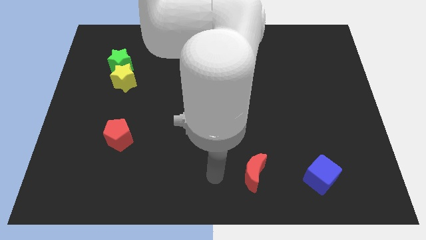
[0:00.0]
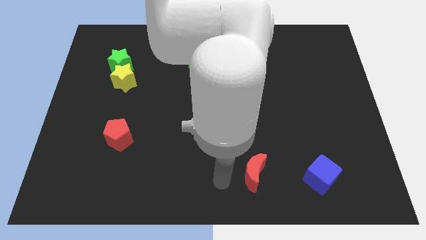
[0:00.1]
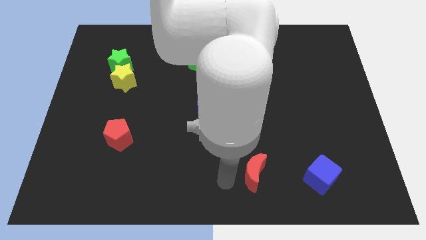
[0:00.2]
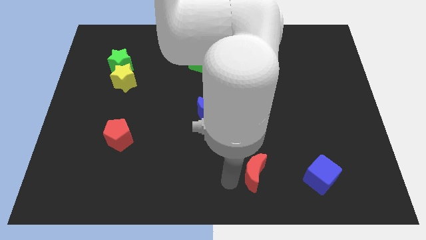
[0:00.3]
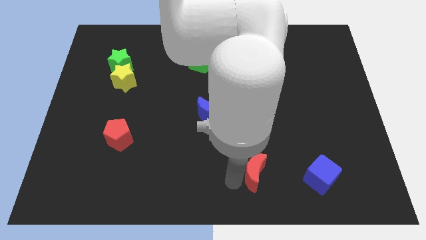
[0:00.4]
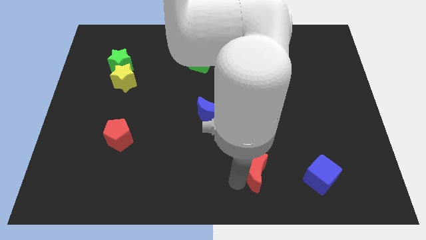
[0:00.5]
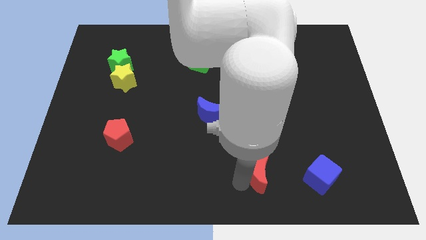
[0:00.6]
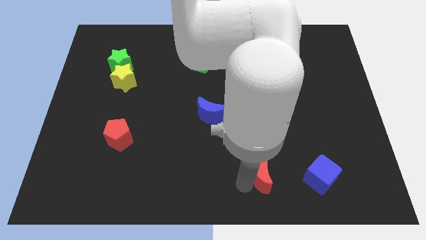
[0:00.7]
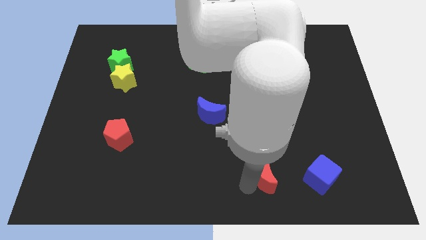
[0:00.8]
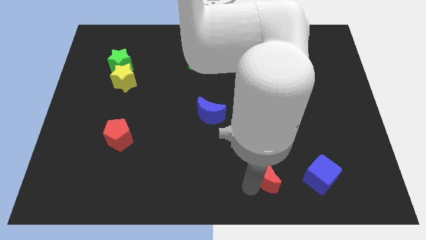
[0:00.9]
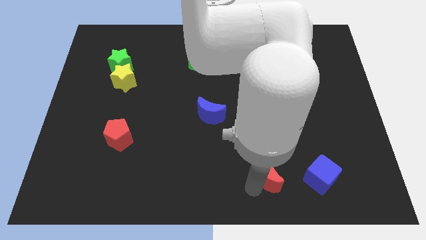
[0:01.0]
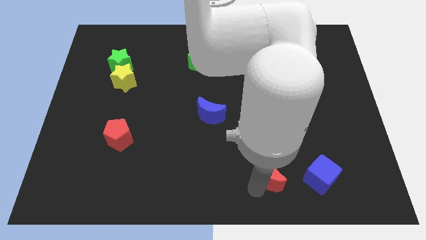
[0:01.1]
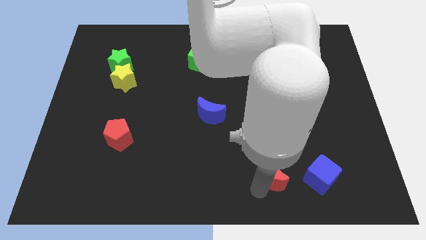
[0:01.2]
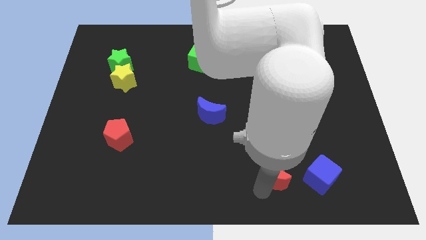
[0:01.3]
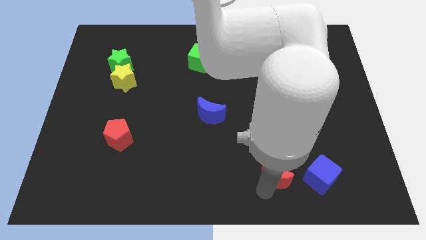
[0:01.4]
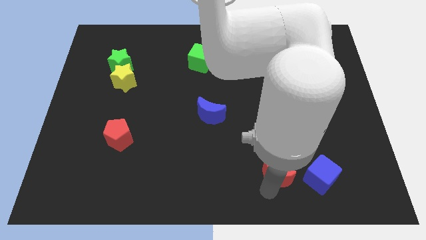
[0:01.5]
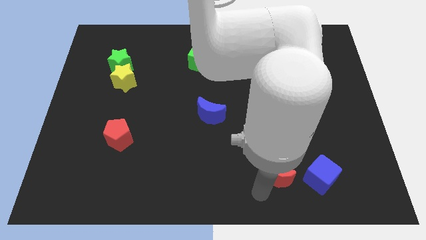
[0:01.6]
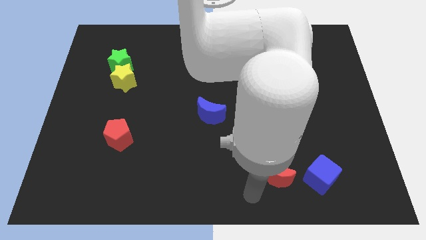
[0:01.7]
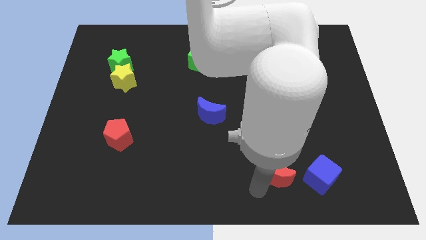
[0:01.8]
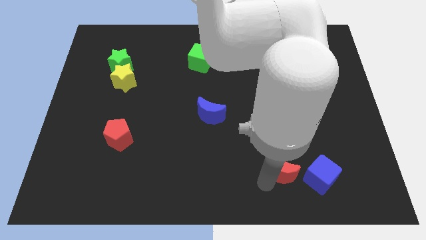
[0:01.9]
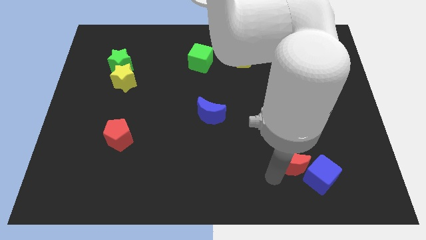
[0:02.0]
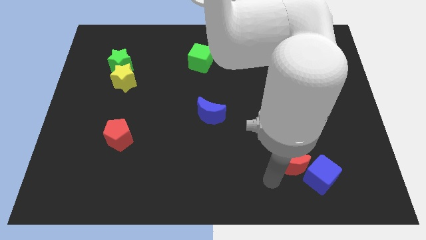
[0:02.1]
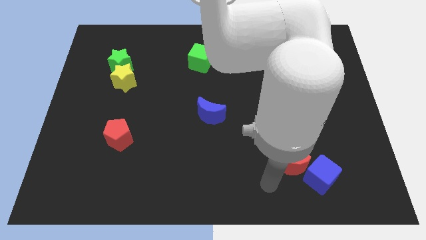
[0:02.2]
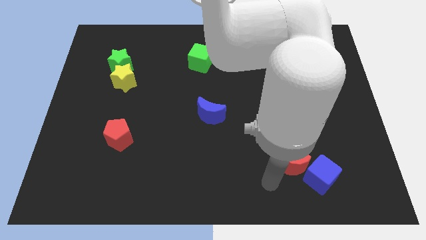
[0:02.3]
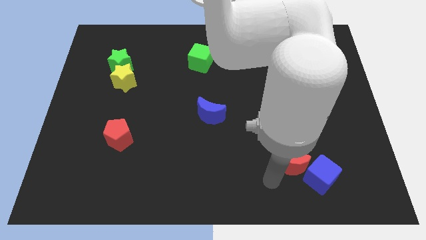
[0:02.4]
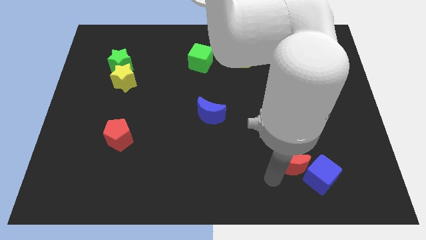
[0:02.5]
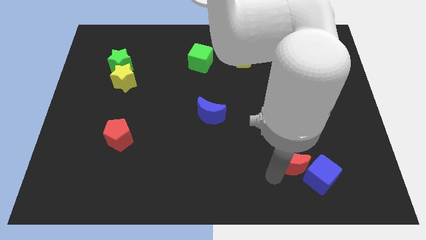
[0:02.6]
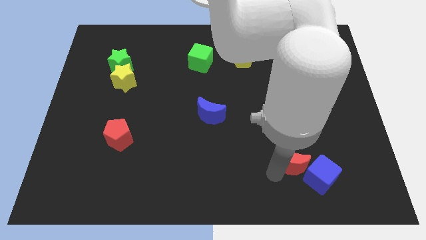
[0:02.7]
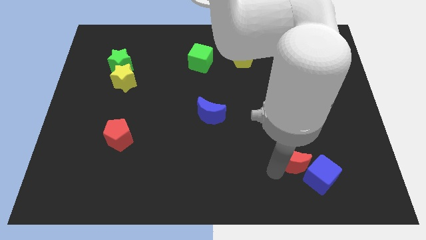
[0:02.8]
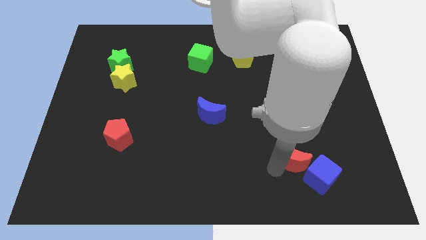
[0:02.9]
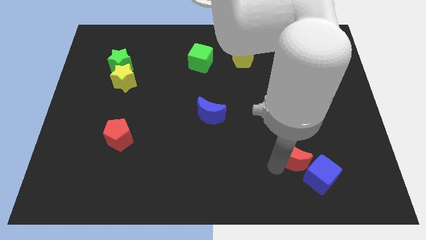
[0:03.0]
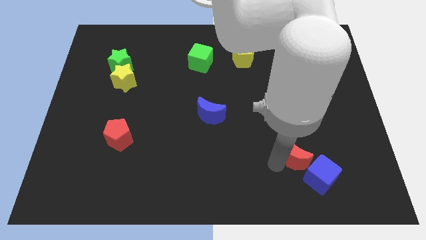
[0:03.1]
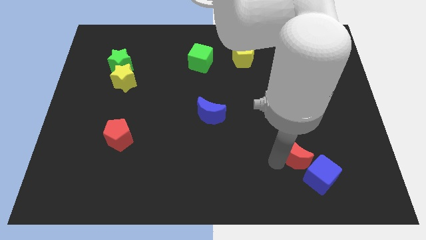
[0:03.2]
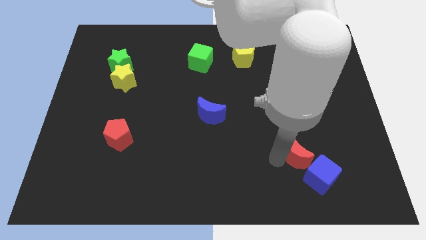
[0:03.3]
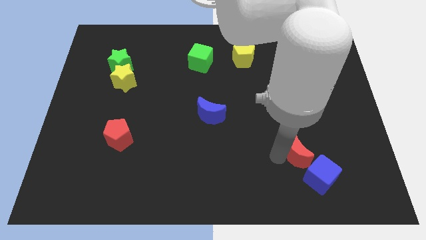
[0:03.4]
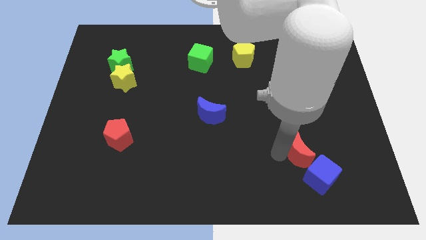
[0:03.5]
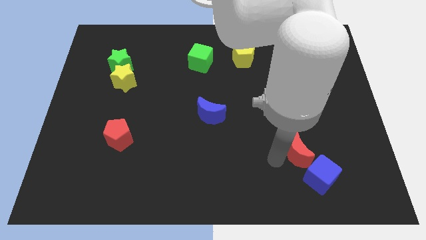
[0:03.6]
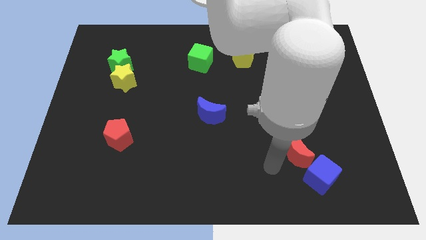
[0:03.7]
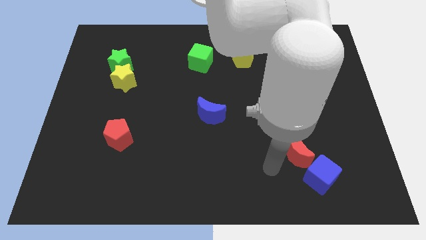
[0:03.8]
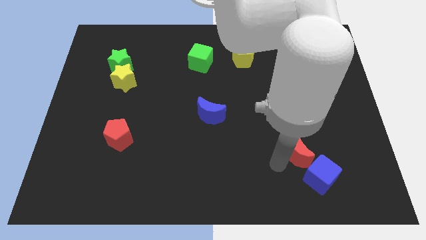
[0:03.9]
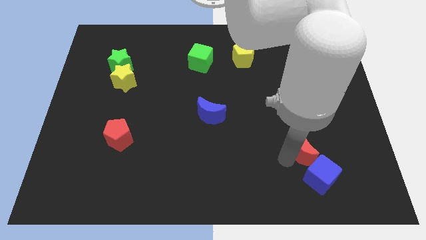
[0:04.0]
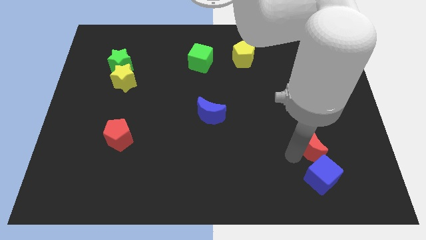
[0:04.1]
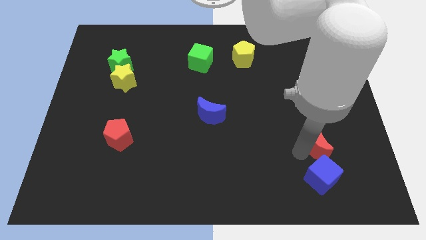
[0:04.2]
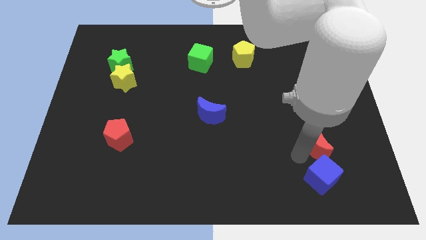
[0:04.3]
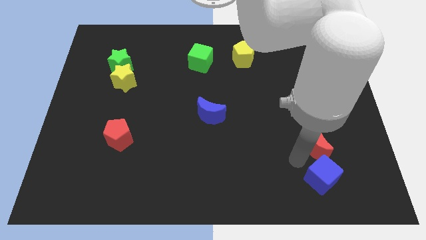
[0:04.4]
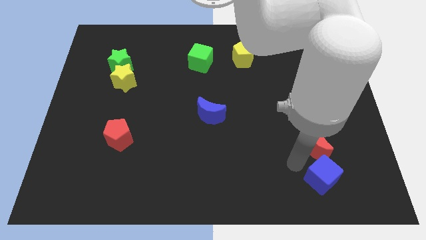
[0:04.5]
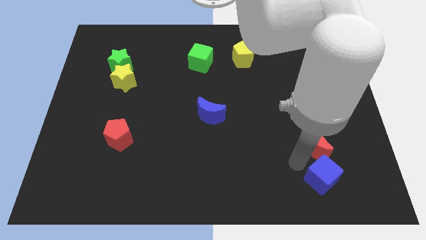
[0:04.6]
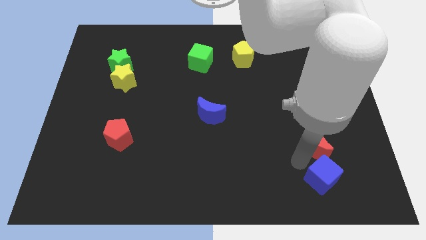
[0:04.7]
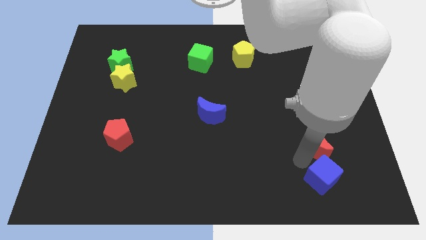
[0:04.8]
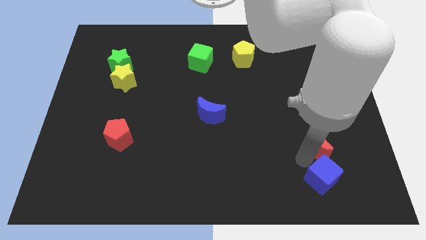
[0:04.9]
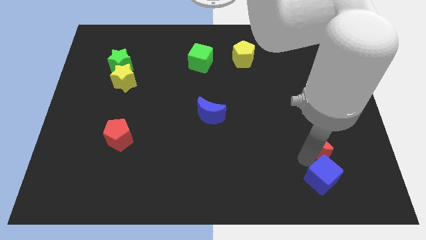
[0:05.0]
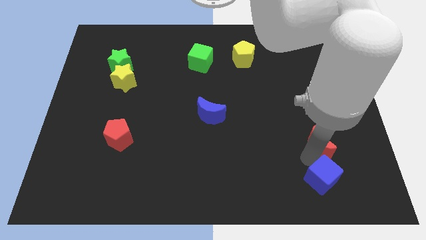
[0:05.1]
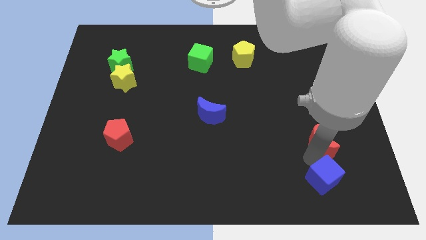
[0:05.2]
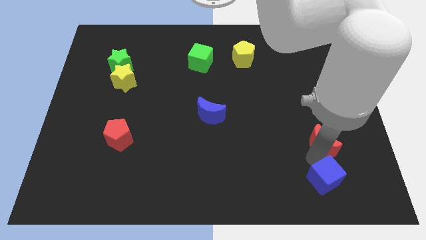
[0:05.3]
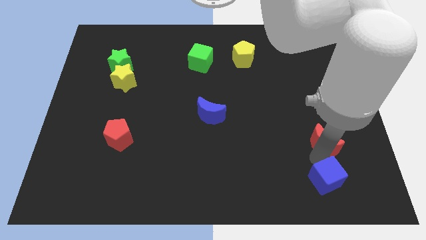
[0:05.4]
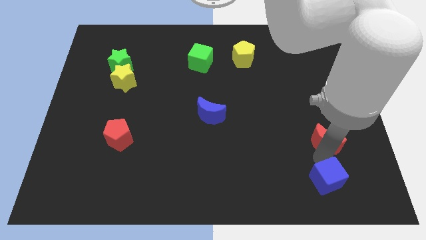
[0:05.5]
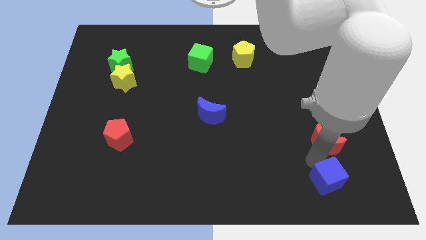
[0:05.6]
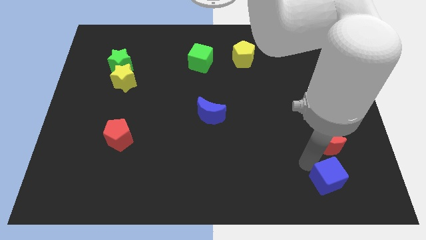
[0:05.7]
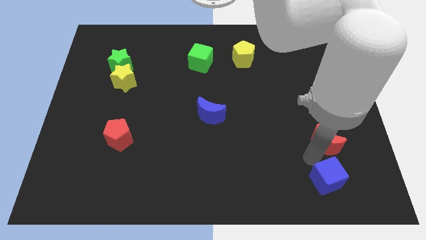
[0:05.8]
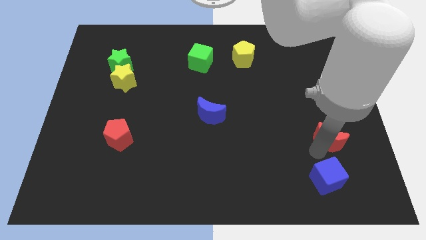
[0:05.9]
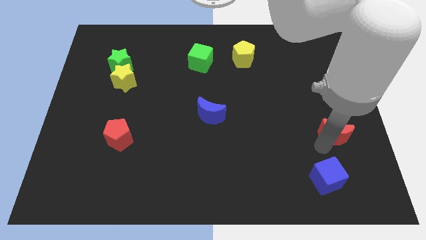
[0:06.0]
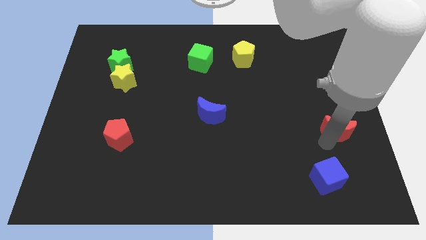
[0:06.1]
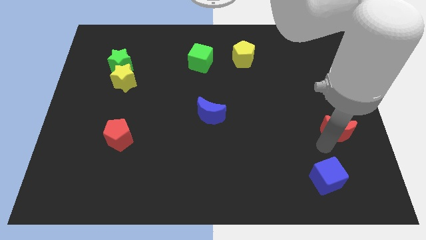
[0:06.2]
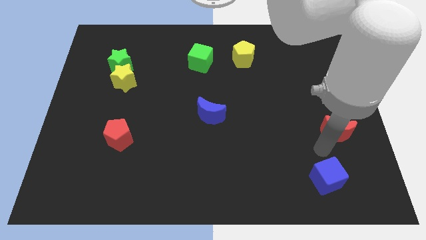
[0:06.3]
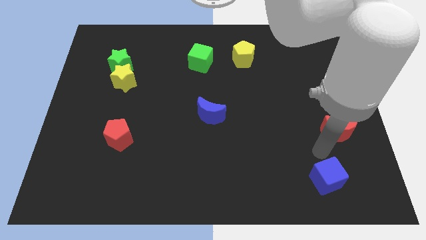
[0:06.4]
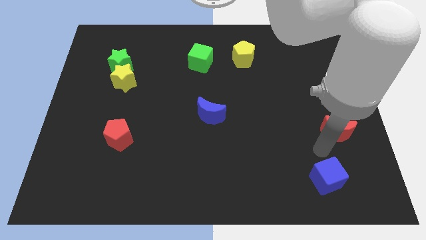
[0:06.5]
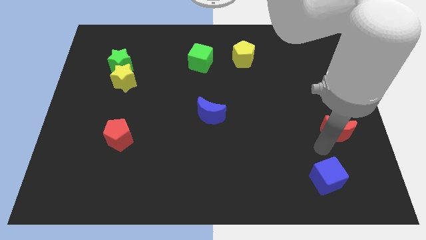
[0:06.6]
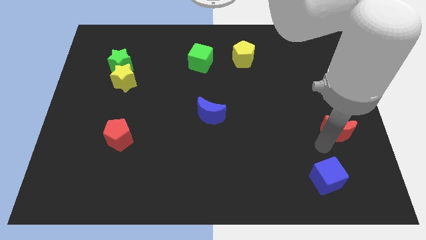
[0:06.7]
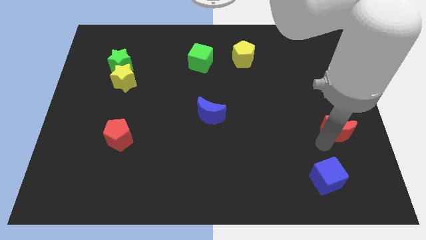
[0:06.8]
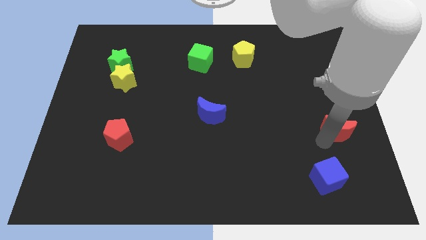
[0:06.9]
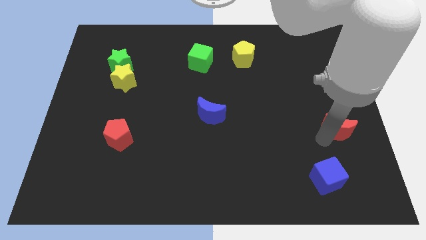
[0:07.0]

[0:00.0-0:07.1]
slide the red moon to the center right
